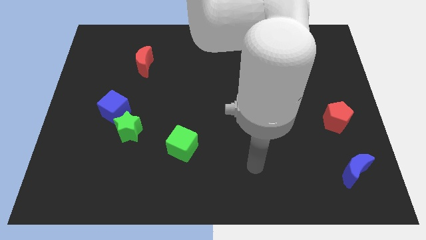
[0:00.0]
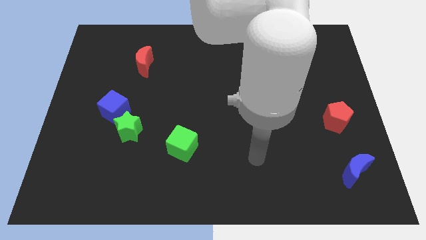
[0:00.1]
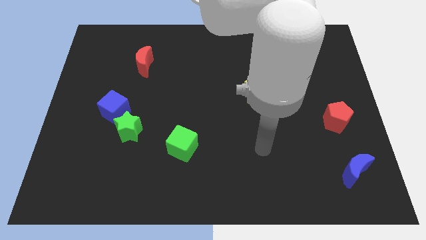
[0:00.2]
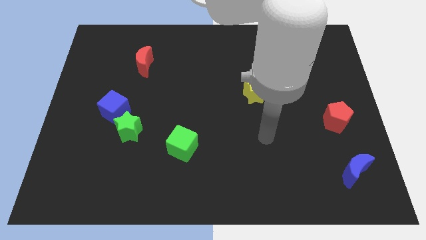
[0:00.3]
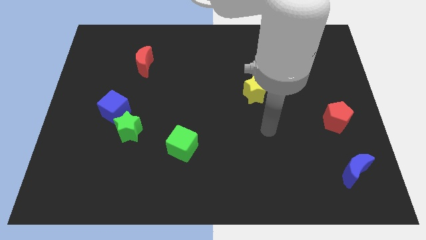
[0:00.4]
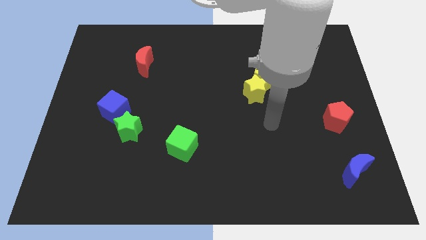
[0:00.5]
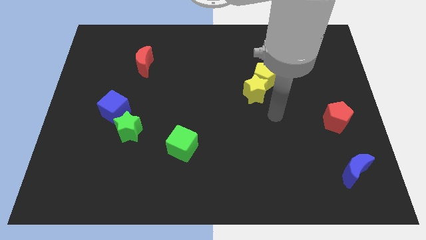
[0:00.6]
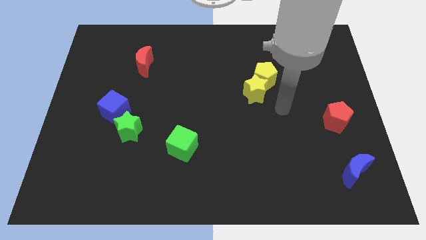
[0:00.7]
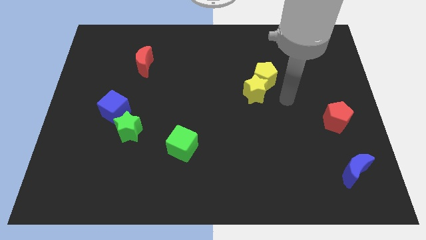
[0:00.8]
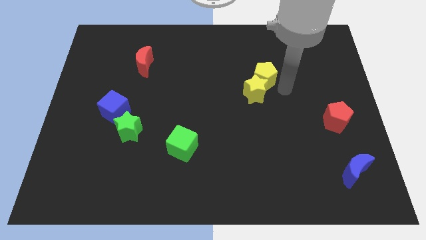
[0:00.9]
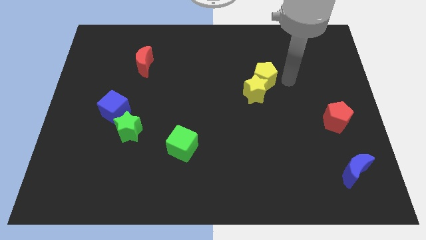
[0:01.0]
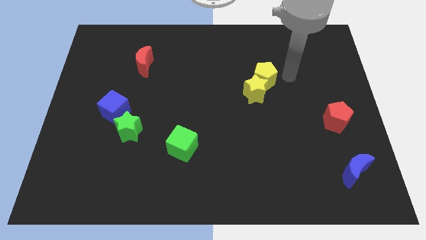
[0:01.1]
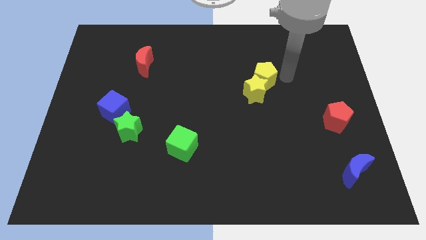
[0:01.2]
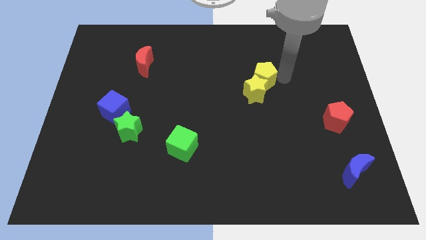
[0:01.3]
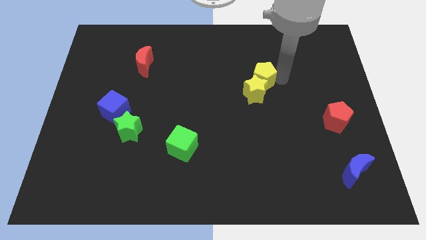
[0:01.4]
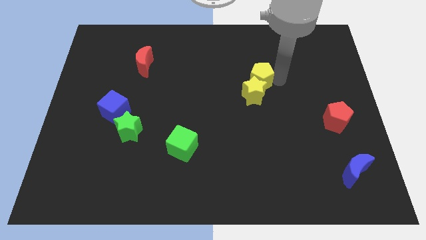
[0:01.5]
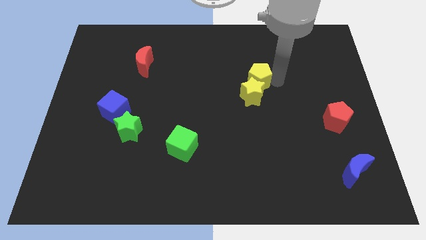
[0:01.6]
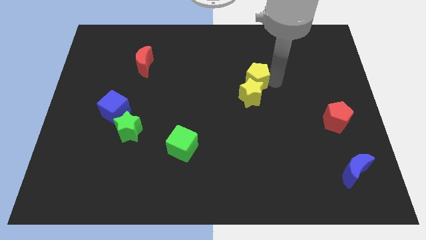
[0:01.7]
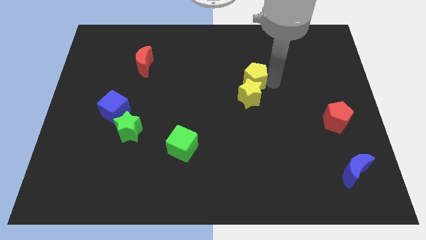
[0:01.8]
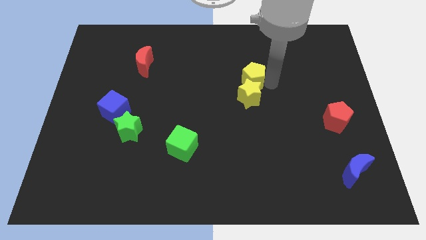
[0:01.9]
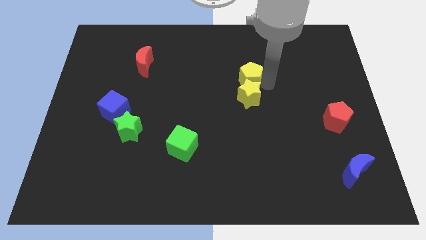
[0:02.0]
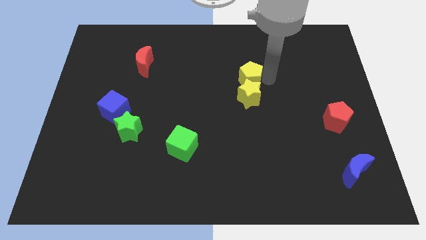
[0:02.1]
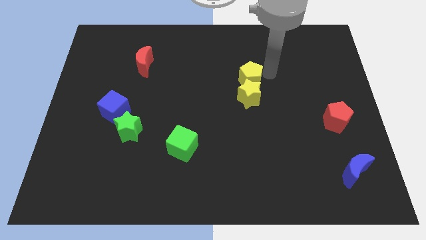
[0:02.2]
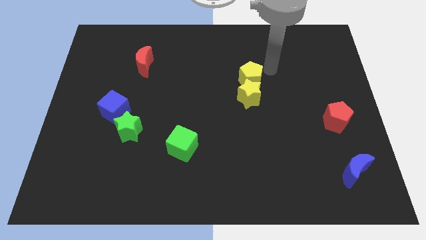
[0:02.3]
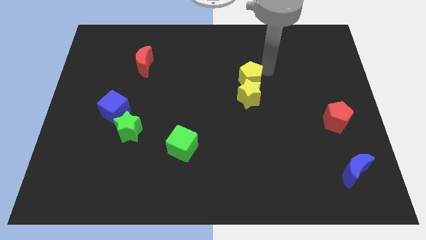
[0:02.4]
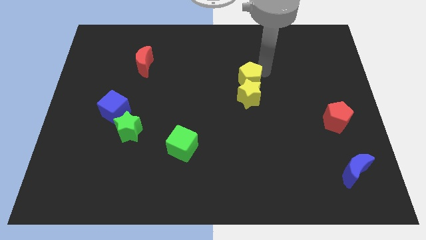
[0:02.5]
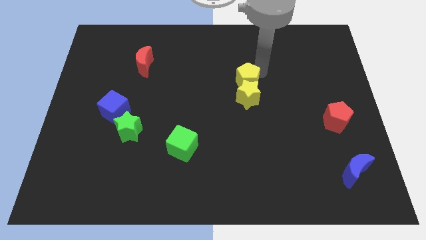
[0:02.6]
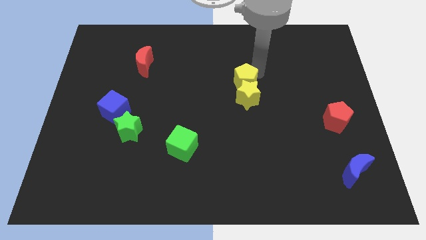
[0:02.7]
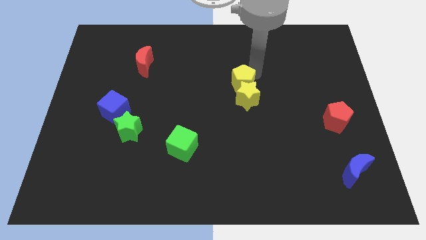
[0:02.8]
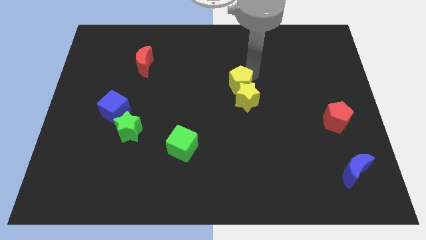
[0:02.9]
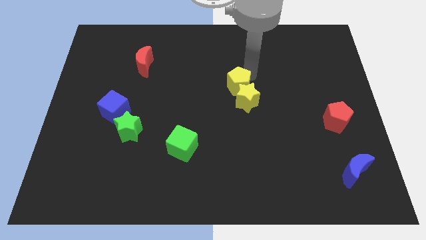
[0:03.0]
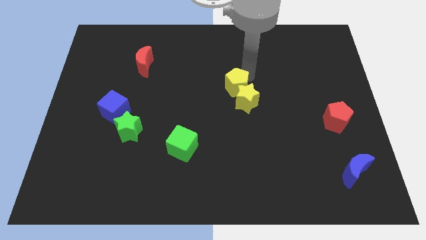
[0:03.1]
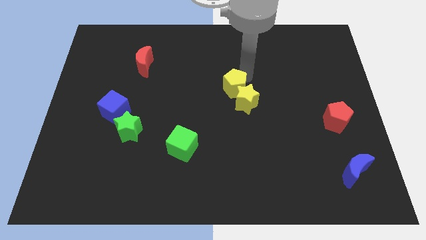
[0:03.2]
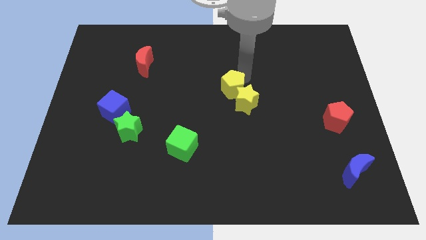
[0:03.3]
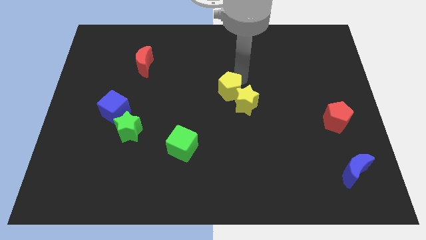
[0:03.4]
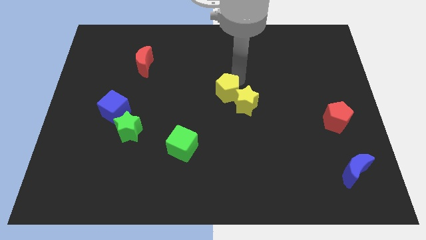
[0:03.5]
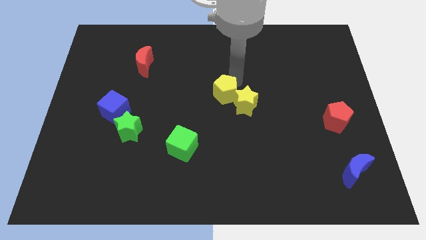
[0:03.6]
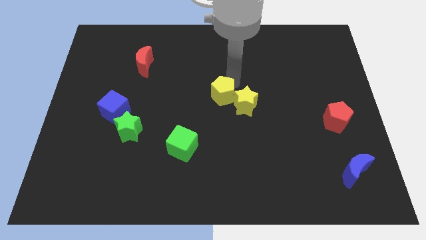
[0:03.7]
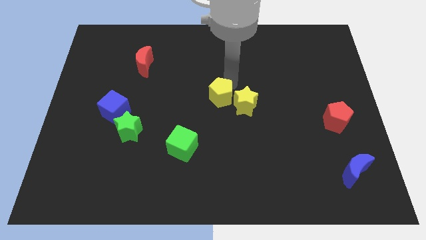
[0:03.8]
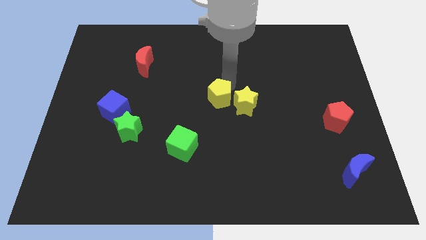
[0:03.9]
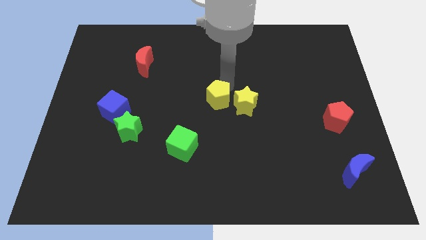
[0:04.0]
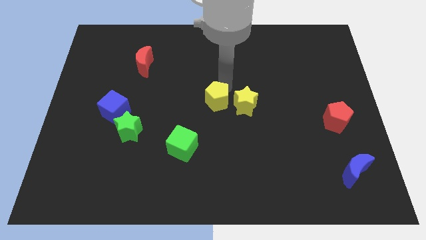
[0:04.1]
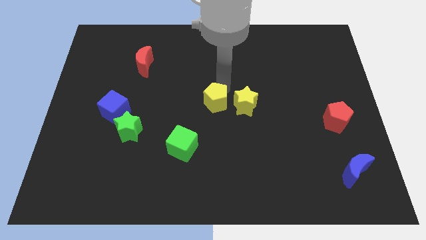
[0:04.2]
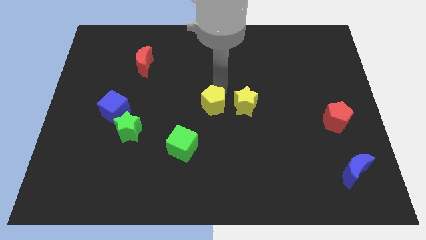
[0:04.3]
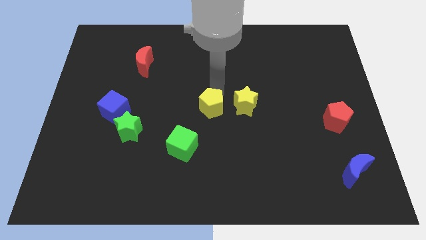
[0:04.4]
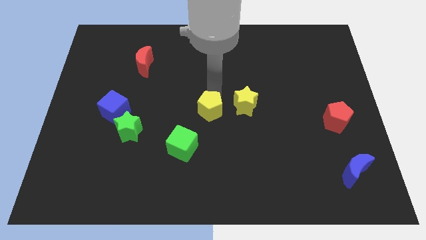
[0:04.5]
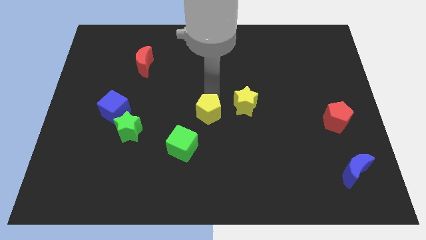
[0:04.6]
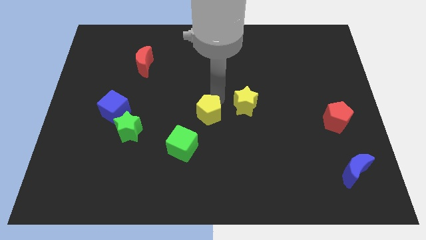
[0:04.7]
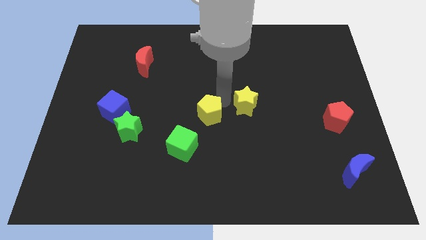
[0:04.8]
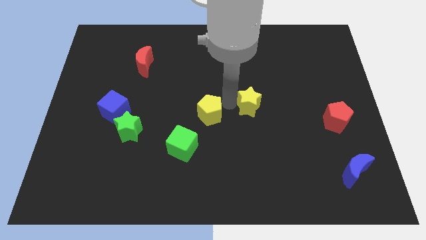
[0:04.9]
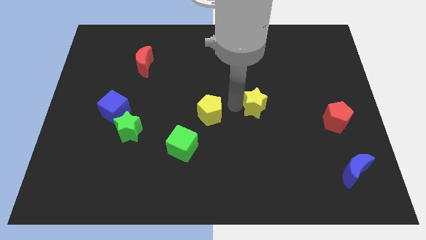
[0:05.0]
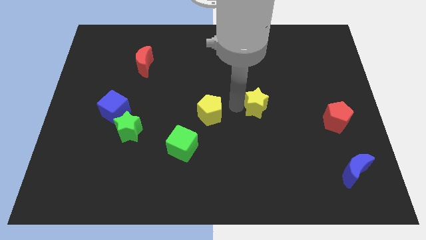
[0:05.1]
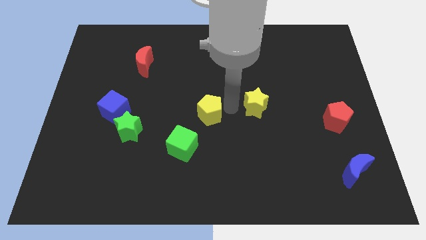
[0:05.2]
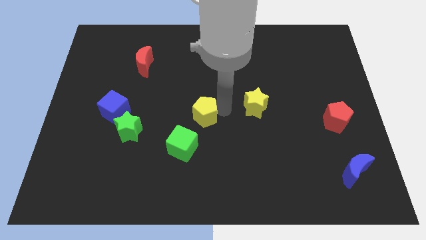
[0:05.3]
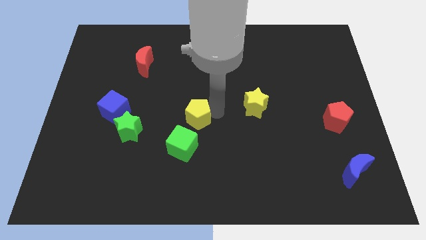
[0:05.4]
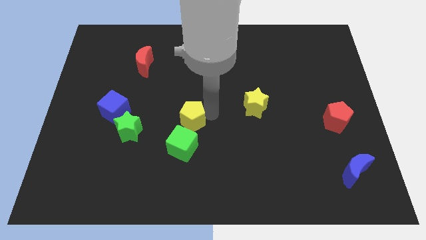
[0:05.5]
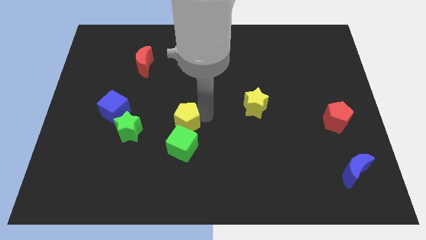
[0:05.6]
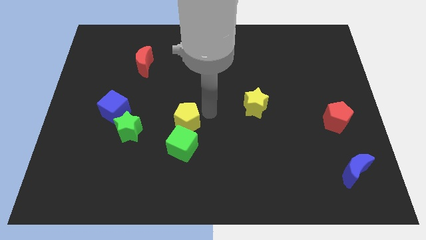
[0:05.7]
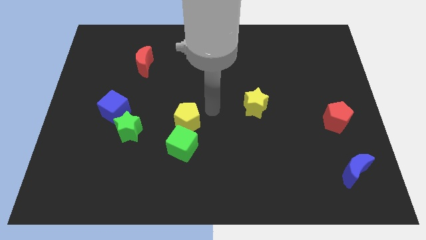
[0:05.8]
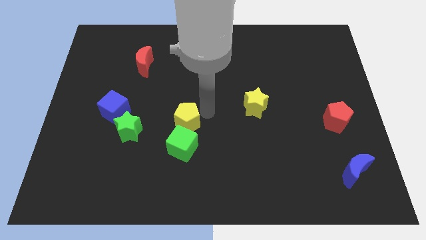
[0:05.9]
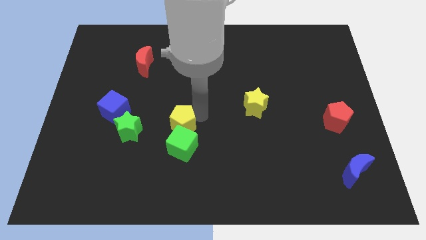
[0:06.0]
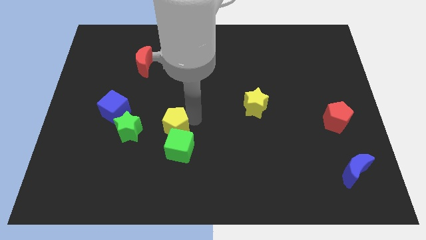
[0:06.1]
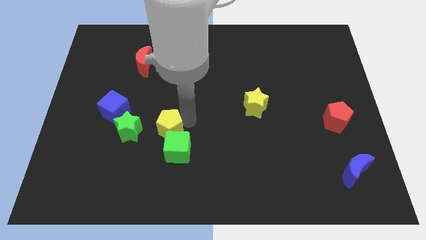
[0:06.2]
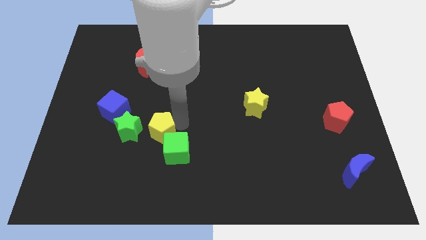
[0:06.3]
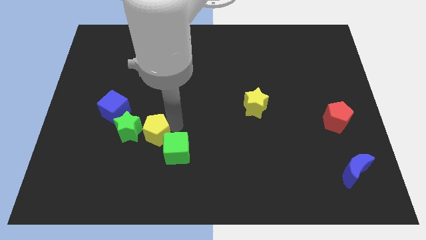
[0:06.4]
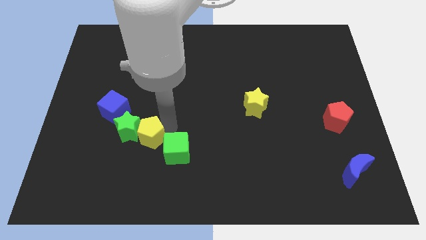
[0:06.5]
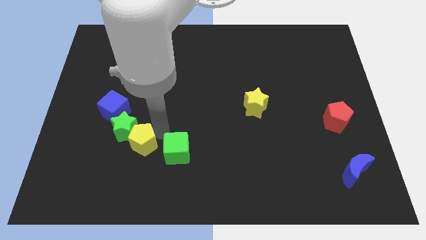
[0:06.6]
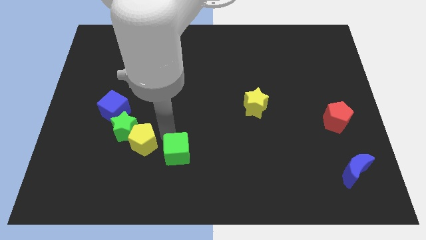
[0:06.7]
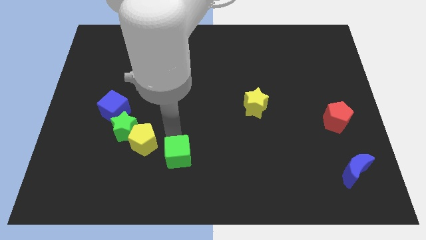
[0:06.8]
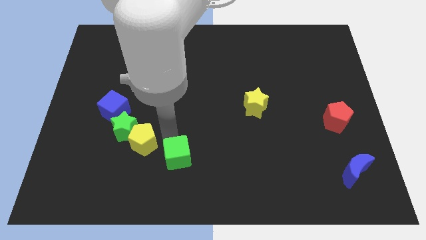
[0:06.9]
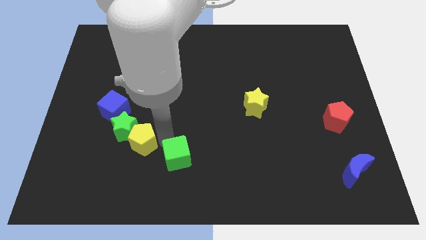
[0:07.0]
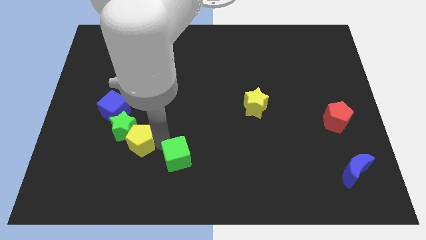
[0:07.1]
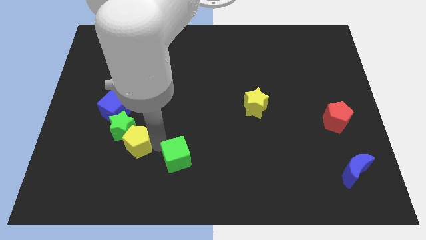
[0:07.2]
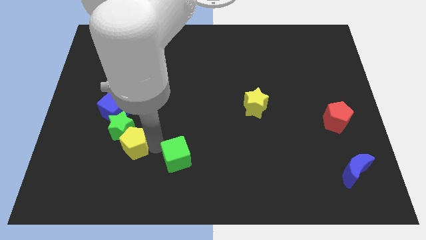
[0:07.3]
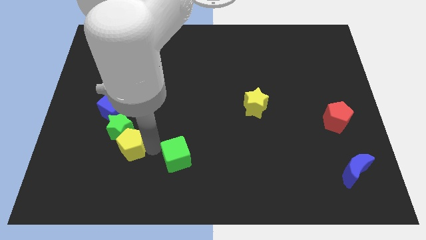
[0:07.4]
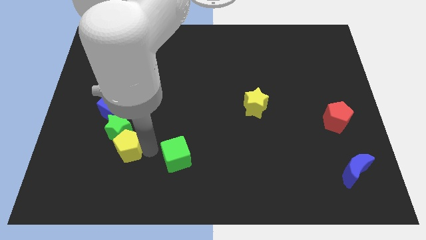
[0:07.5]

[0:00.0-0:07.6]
put the yellow pentagon below the blue cube
